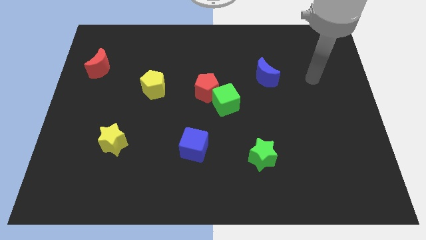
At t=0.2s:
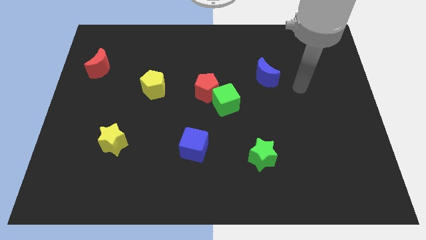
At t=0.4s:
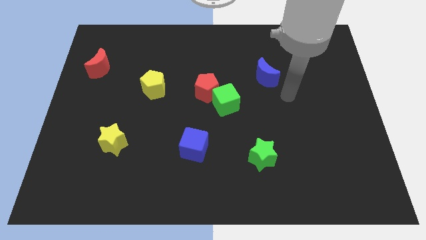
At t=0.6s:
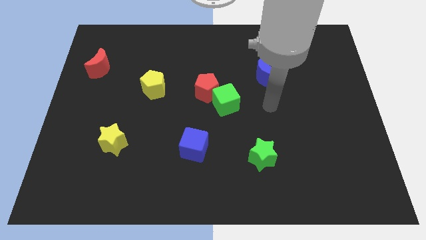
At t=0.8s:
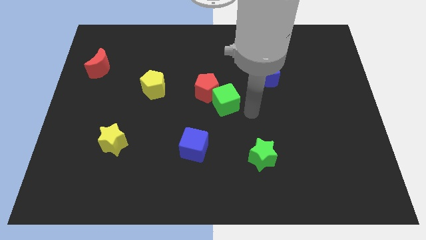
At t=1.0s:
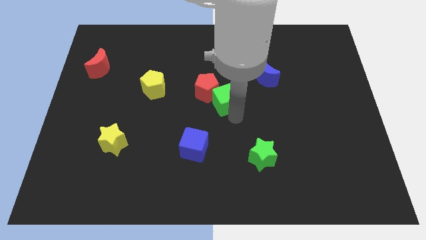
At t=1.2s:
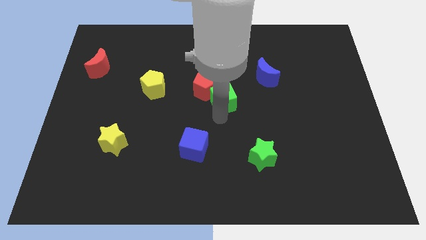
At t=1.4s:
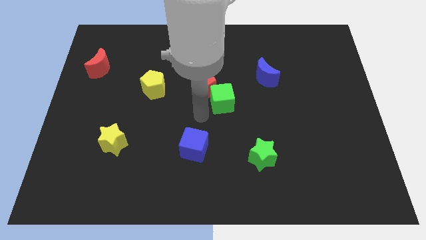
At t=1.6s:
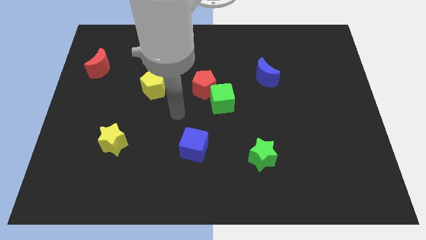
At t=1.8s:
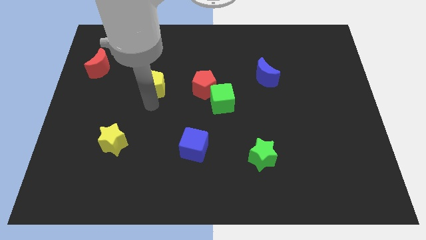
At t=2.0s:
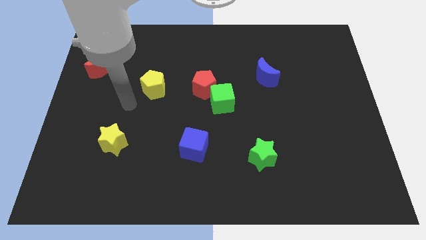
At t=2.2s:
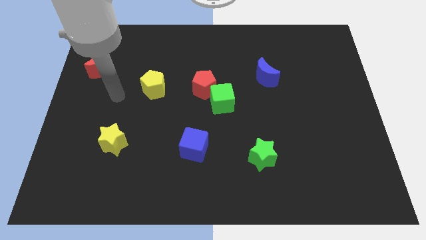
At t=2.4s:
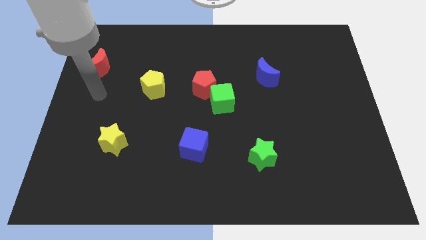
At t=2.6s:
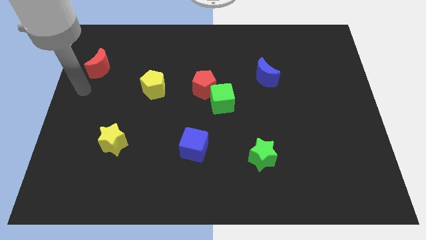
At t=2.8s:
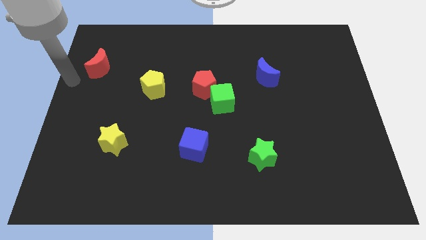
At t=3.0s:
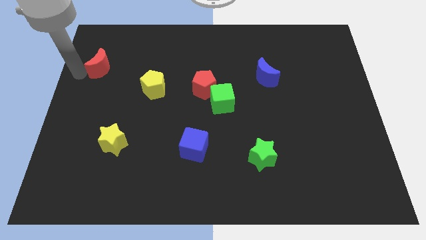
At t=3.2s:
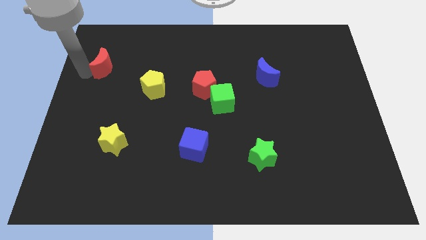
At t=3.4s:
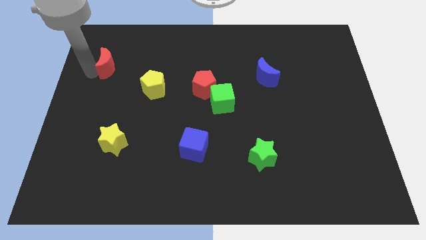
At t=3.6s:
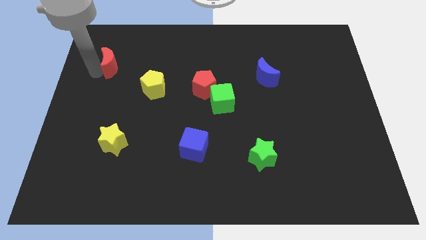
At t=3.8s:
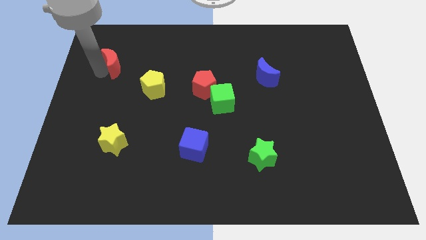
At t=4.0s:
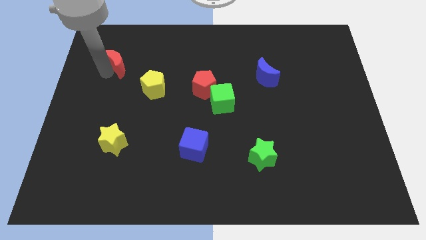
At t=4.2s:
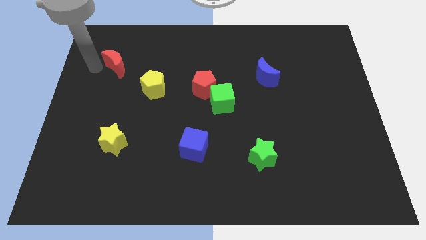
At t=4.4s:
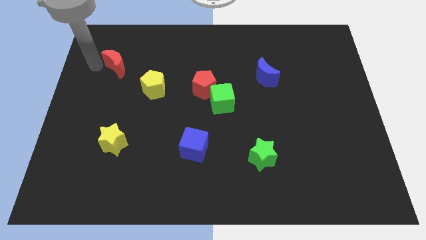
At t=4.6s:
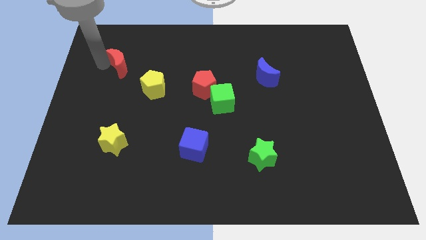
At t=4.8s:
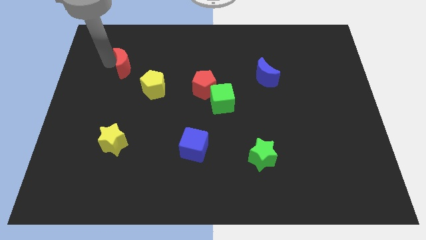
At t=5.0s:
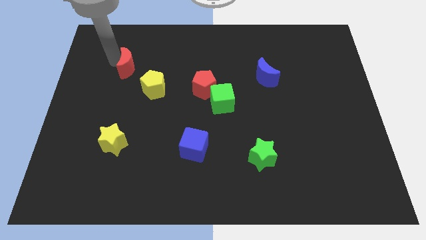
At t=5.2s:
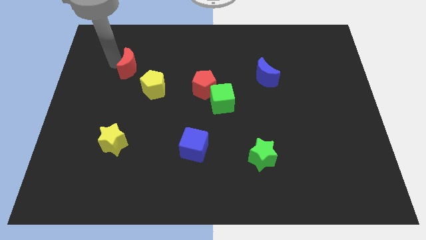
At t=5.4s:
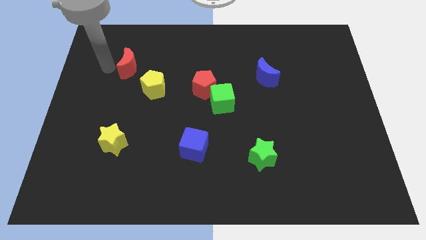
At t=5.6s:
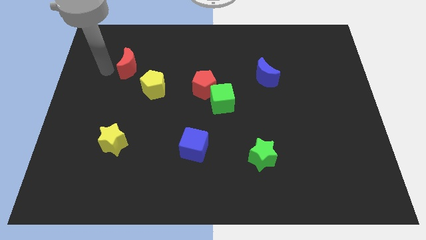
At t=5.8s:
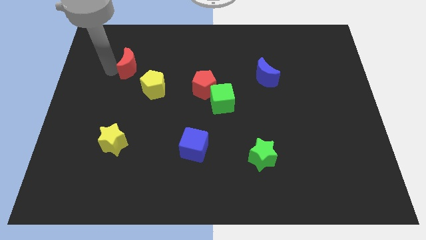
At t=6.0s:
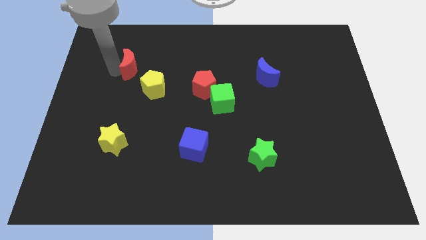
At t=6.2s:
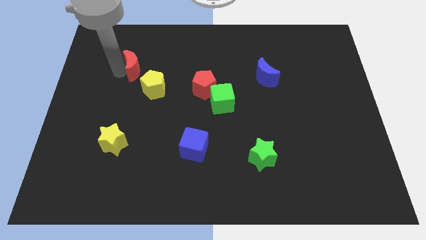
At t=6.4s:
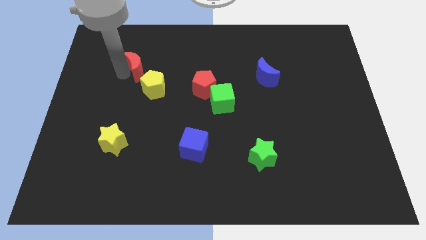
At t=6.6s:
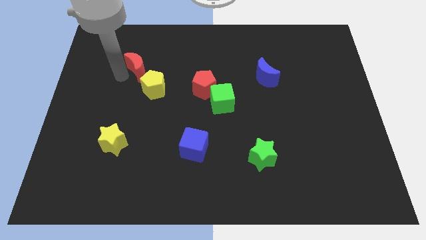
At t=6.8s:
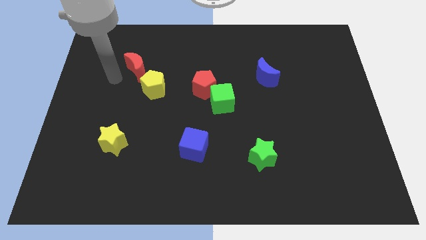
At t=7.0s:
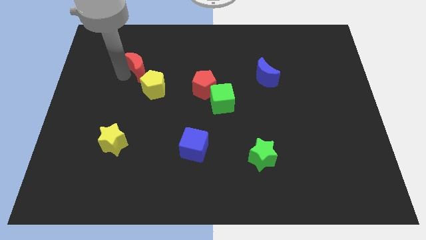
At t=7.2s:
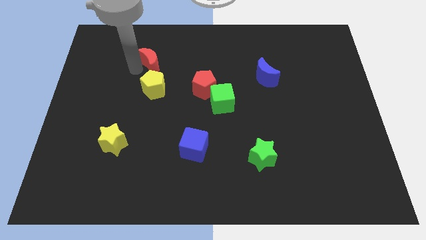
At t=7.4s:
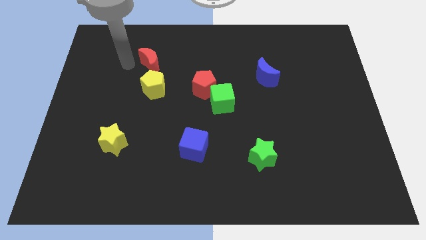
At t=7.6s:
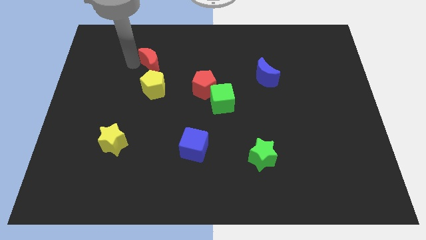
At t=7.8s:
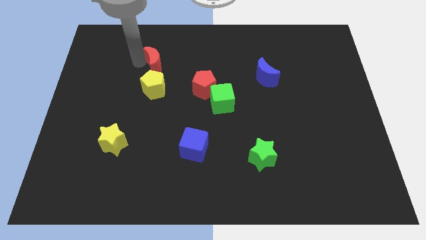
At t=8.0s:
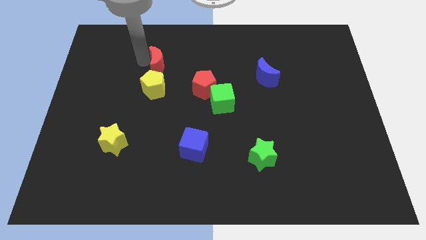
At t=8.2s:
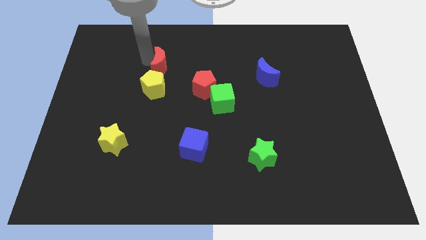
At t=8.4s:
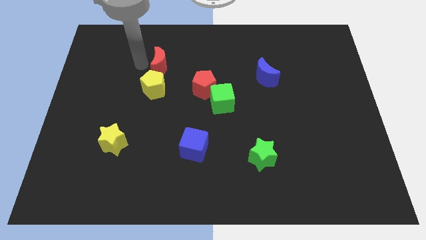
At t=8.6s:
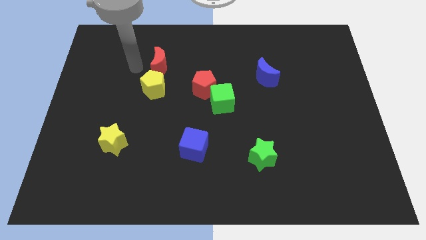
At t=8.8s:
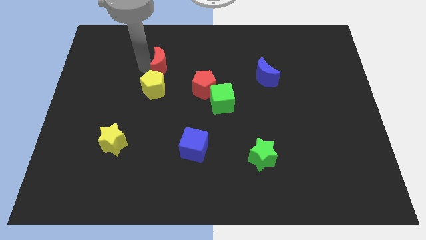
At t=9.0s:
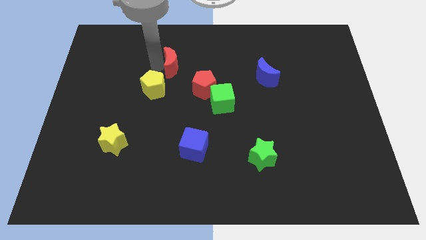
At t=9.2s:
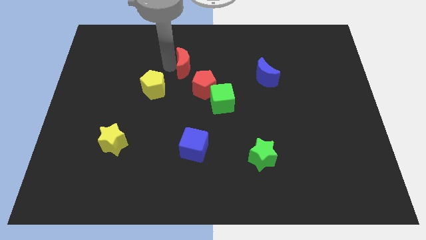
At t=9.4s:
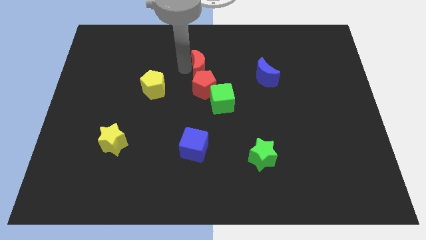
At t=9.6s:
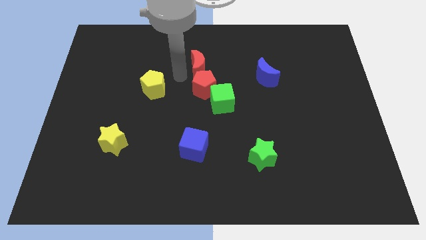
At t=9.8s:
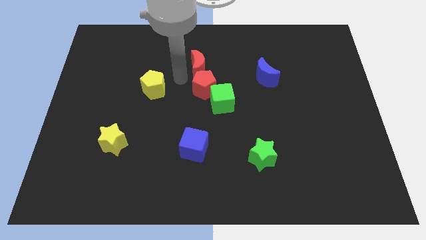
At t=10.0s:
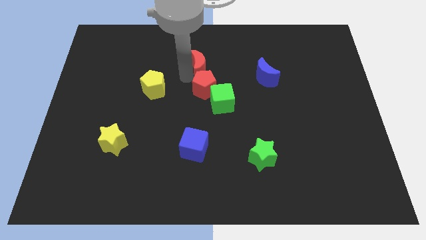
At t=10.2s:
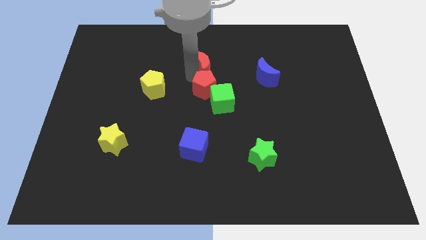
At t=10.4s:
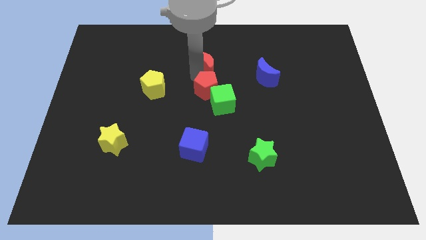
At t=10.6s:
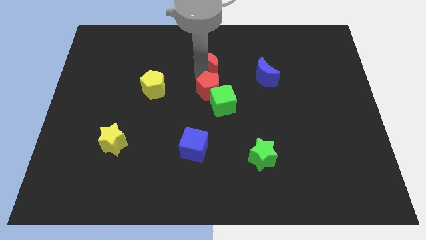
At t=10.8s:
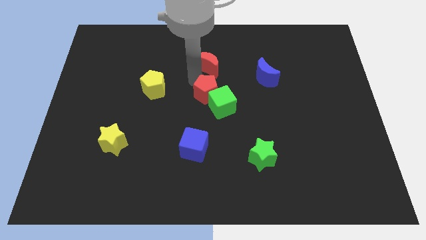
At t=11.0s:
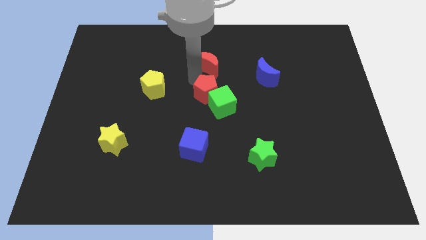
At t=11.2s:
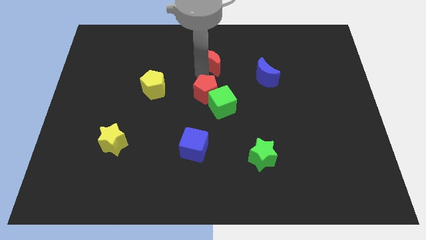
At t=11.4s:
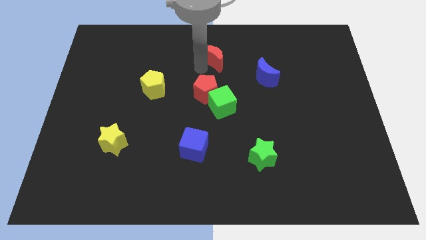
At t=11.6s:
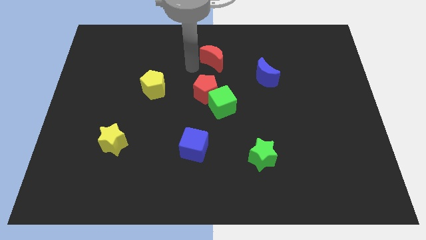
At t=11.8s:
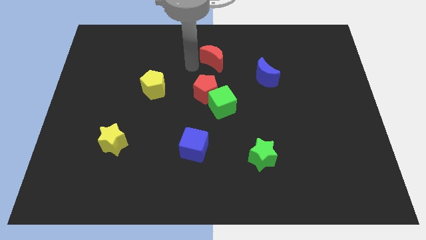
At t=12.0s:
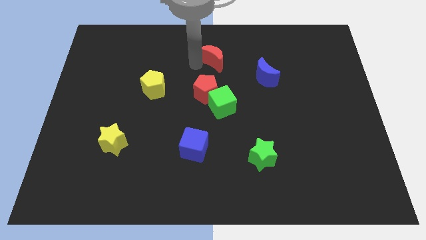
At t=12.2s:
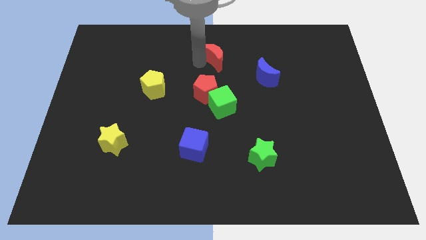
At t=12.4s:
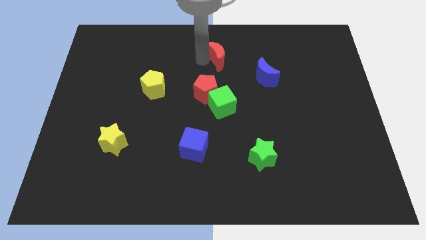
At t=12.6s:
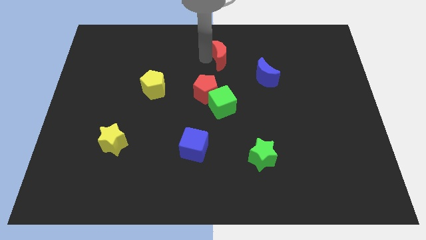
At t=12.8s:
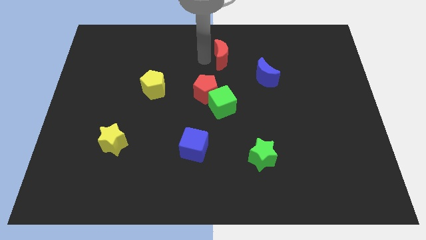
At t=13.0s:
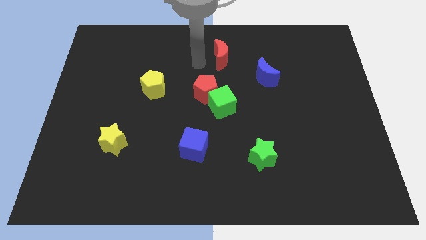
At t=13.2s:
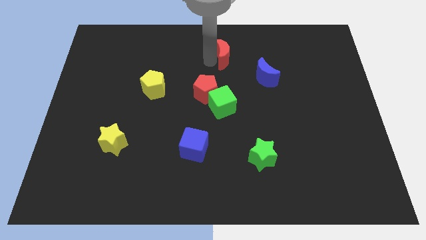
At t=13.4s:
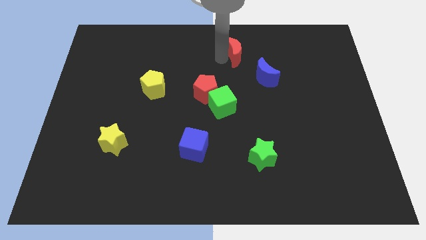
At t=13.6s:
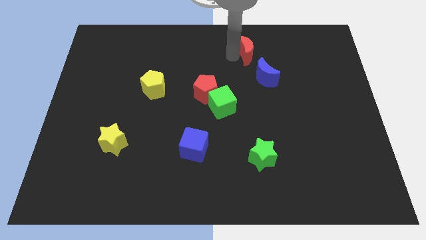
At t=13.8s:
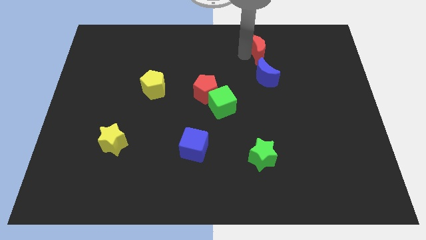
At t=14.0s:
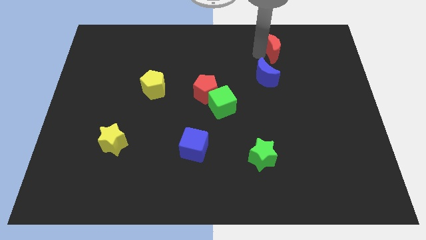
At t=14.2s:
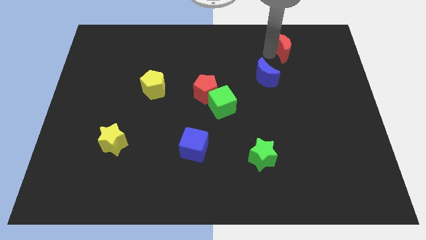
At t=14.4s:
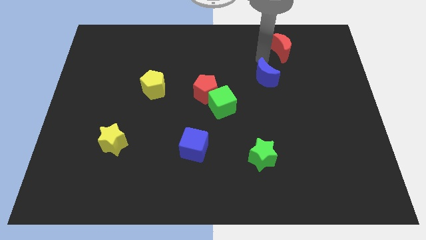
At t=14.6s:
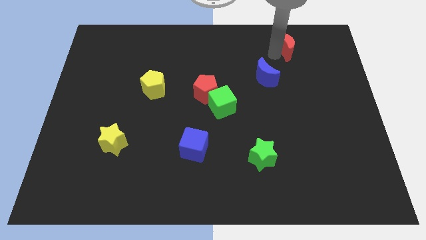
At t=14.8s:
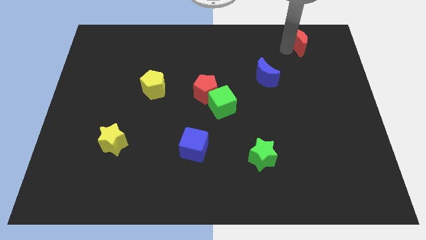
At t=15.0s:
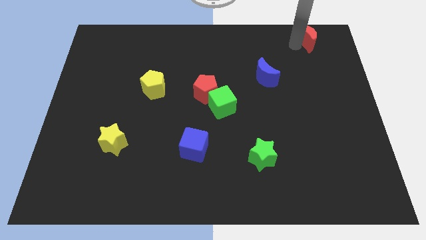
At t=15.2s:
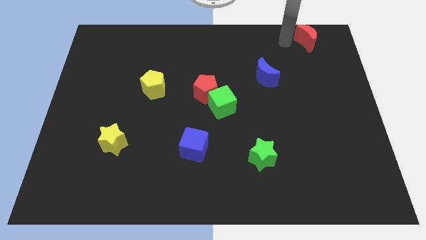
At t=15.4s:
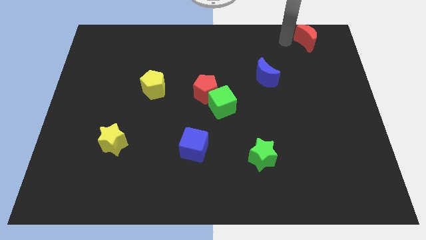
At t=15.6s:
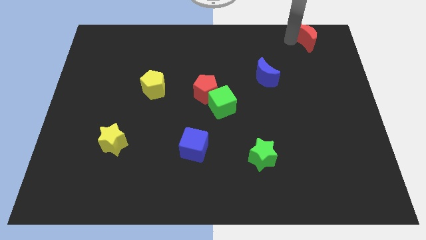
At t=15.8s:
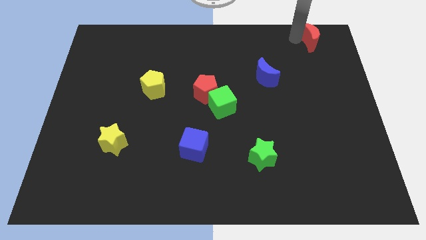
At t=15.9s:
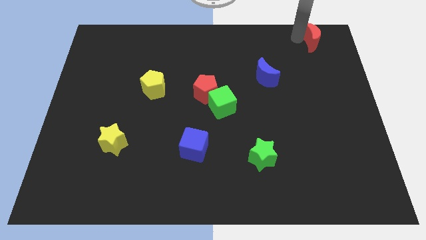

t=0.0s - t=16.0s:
push the red moon to the upper right corner

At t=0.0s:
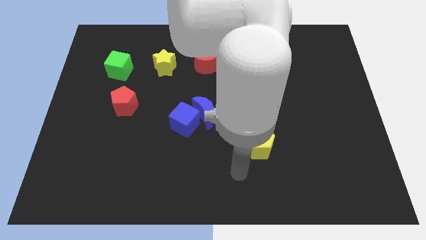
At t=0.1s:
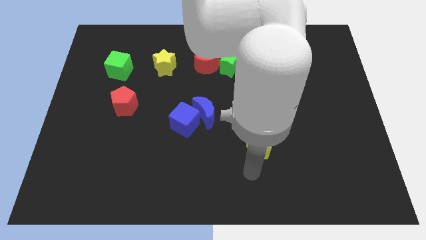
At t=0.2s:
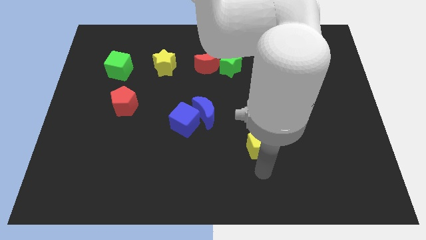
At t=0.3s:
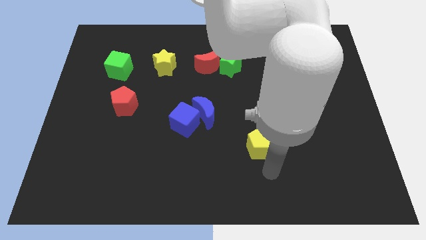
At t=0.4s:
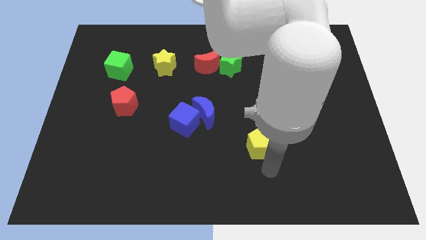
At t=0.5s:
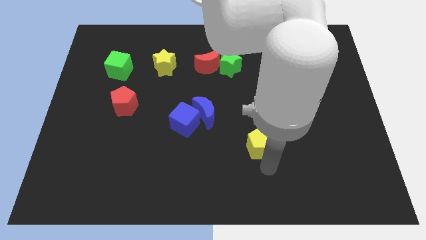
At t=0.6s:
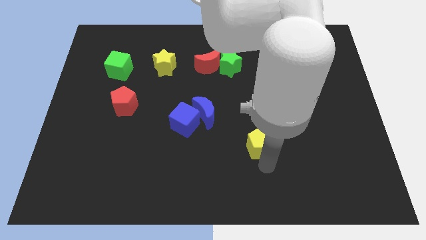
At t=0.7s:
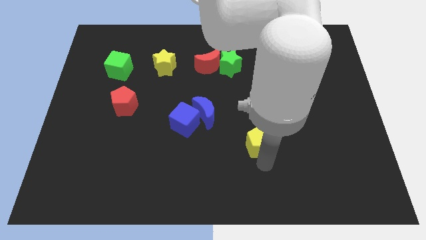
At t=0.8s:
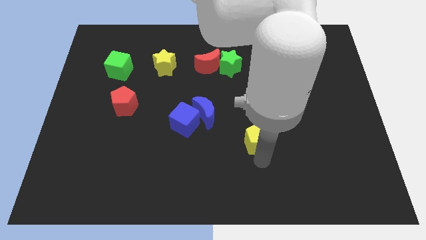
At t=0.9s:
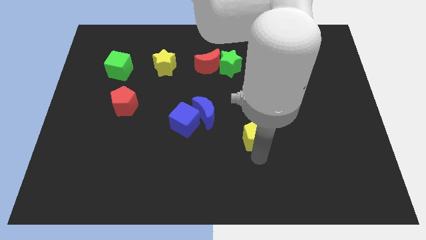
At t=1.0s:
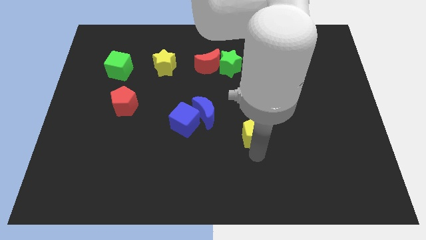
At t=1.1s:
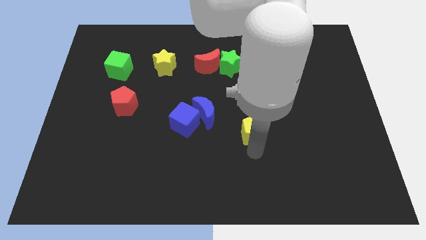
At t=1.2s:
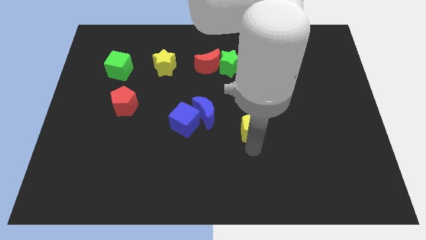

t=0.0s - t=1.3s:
slide the yellow pentagon to the middle of the board
